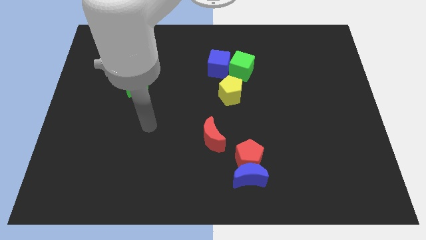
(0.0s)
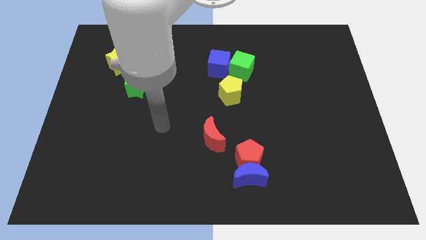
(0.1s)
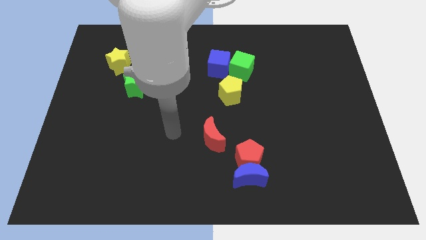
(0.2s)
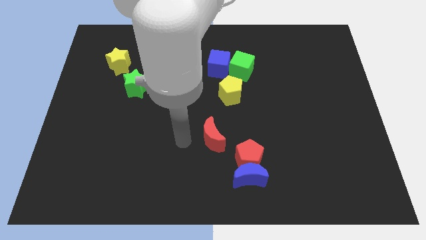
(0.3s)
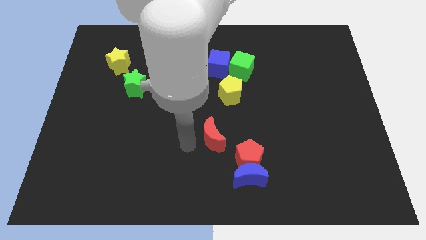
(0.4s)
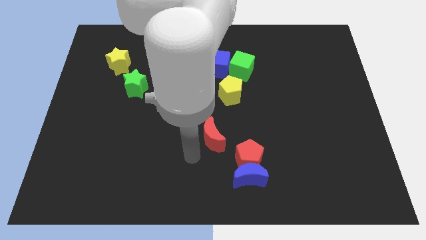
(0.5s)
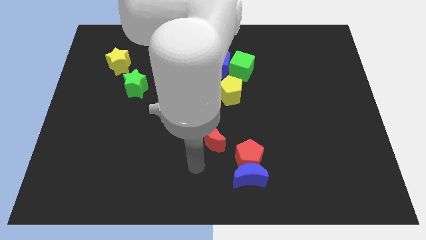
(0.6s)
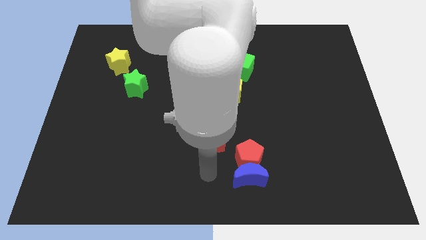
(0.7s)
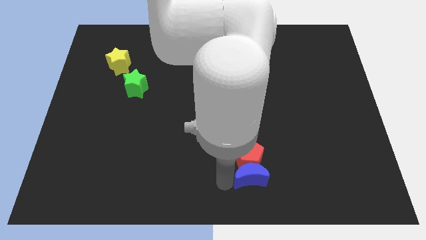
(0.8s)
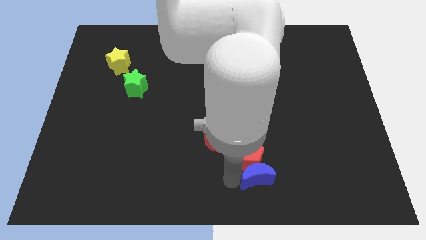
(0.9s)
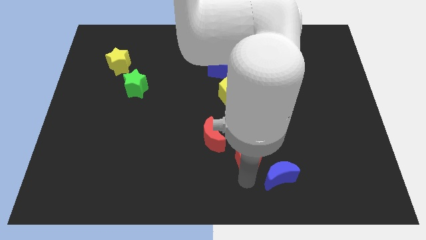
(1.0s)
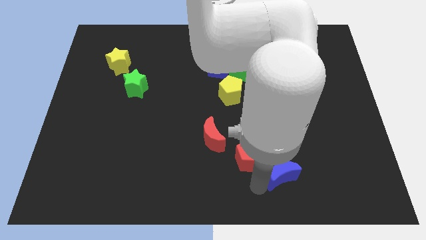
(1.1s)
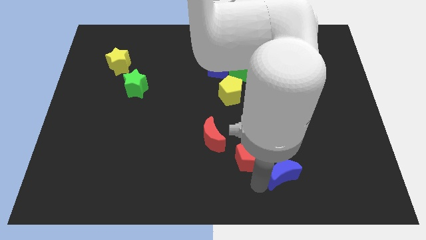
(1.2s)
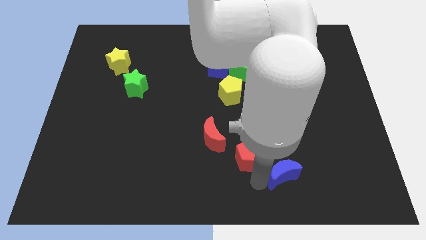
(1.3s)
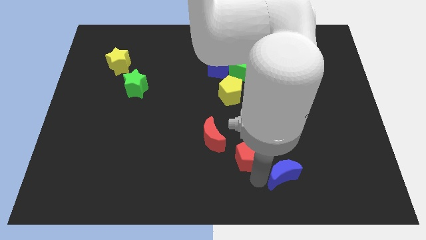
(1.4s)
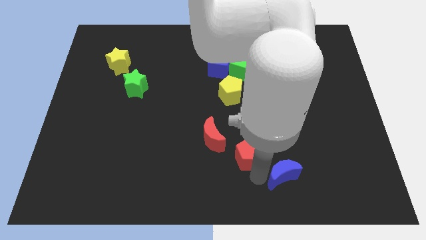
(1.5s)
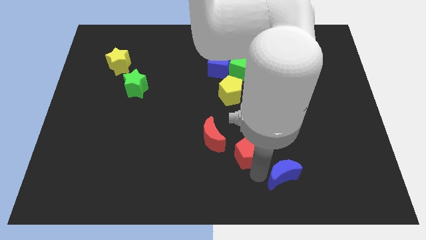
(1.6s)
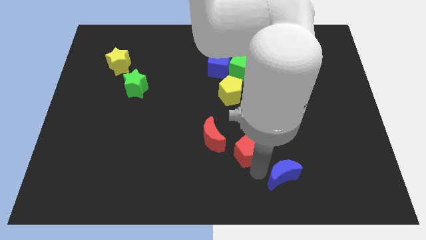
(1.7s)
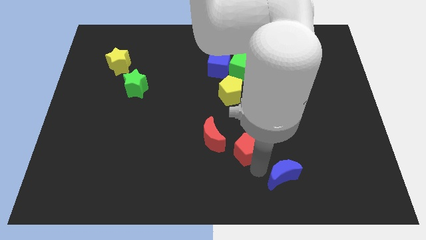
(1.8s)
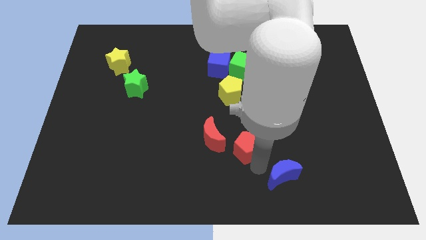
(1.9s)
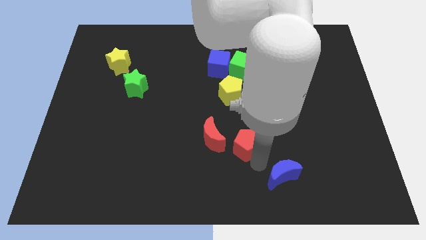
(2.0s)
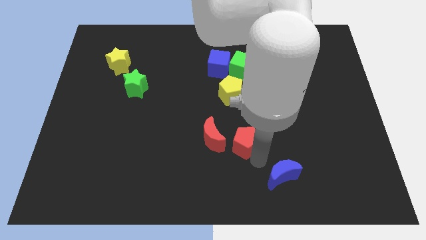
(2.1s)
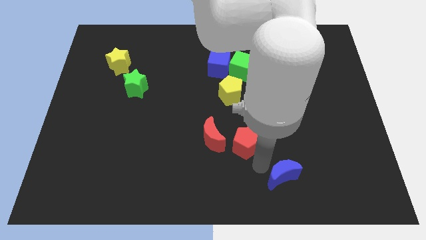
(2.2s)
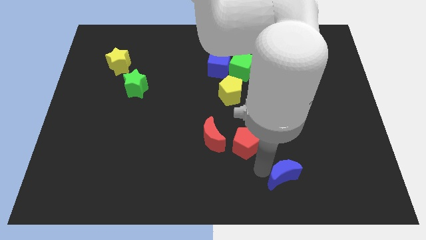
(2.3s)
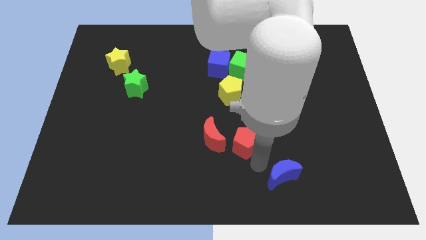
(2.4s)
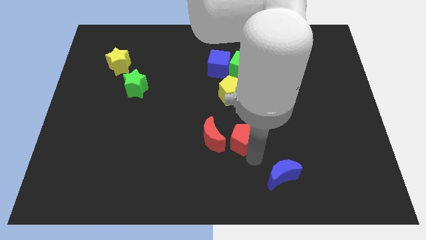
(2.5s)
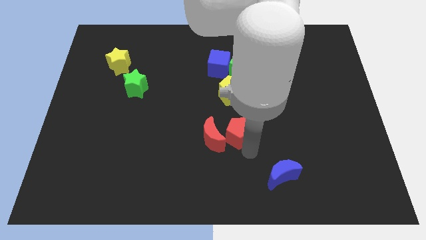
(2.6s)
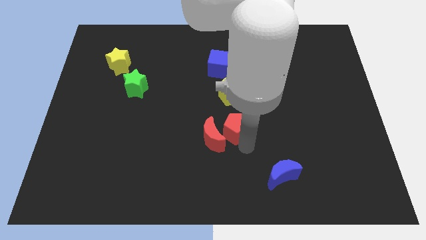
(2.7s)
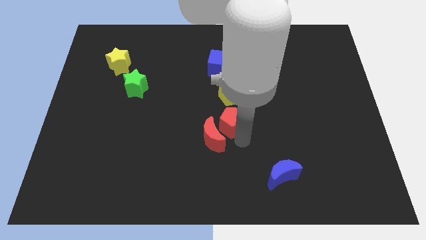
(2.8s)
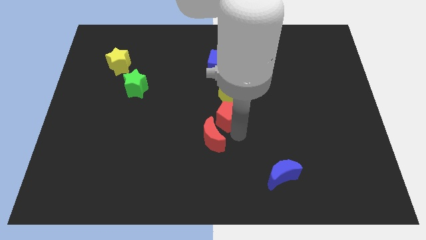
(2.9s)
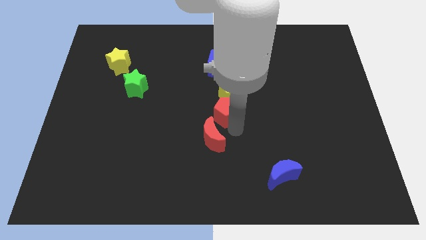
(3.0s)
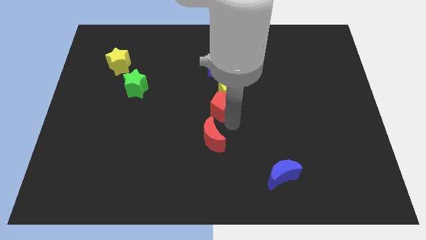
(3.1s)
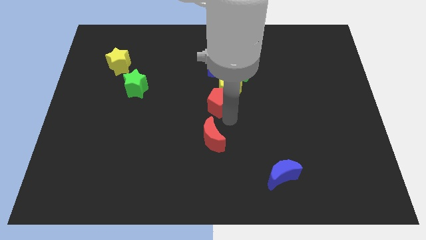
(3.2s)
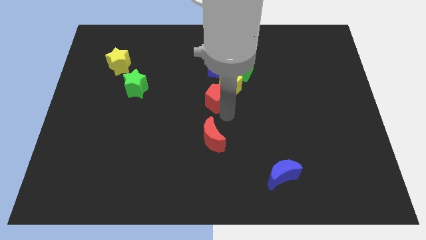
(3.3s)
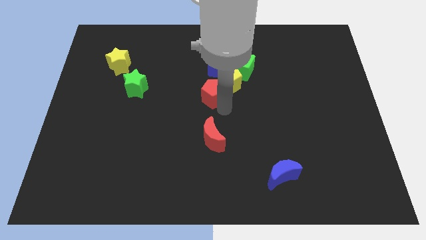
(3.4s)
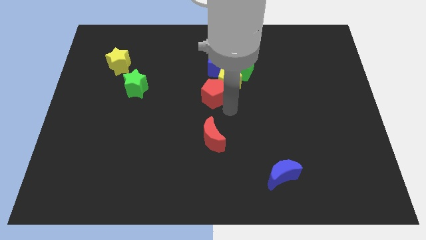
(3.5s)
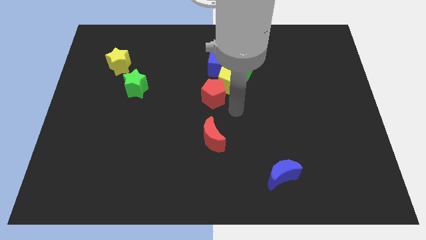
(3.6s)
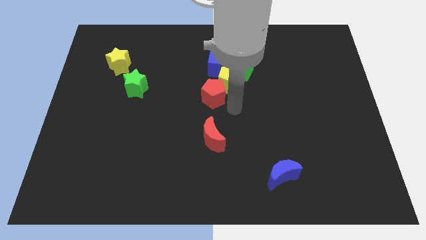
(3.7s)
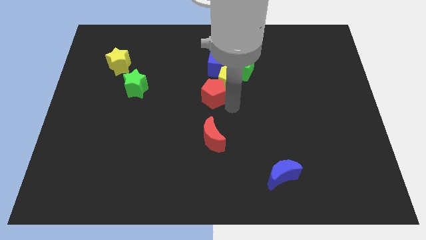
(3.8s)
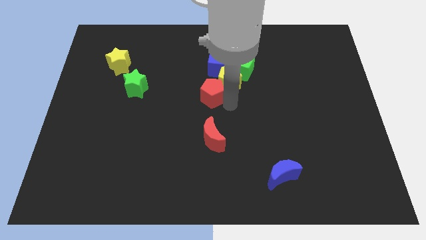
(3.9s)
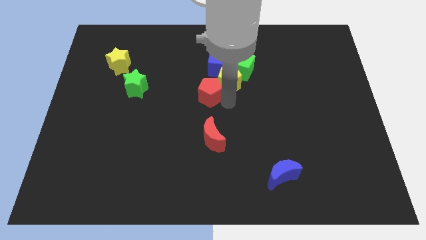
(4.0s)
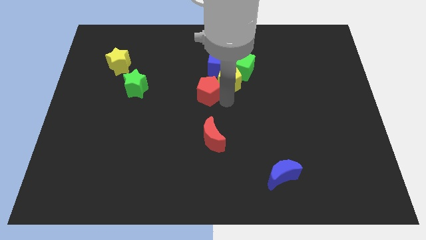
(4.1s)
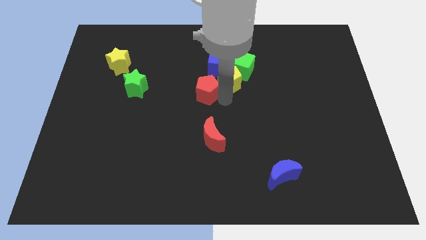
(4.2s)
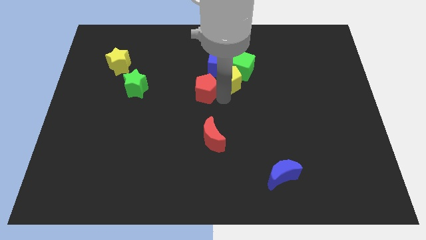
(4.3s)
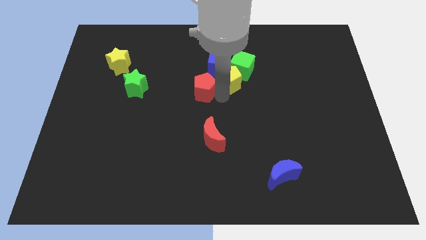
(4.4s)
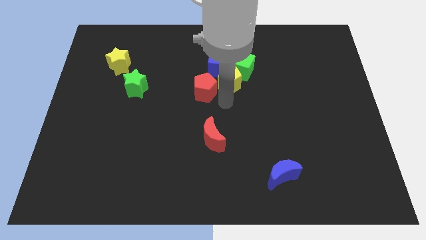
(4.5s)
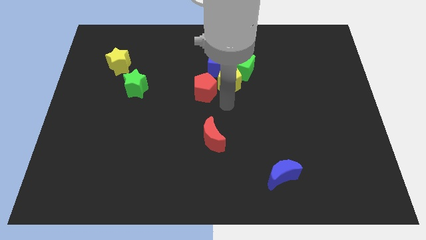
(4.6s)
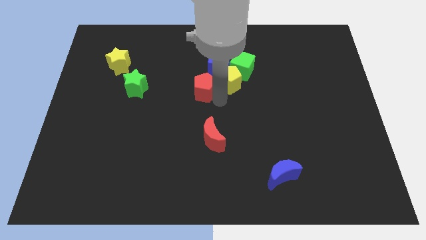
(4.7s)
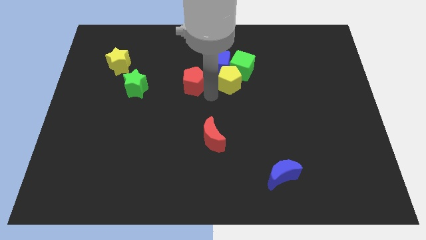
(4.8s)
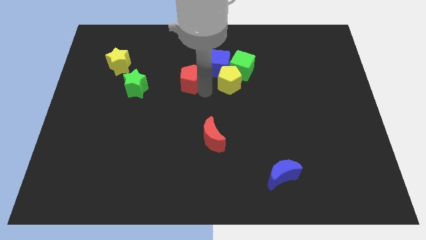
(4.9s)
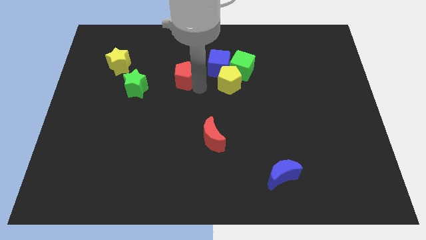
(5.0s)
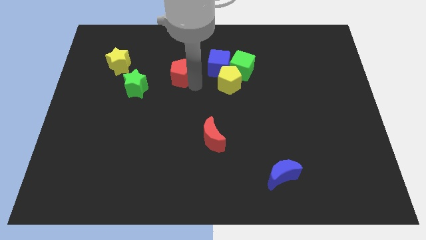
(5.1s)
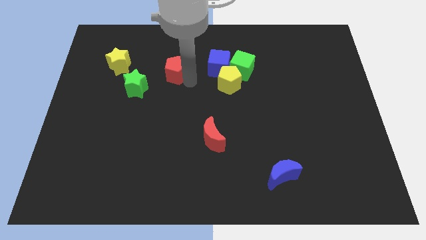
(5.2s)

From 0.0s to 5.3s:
push the red pentagon to the right side of the yellow star

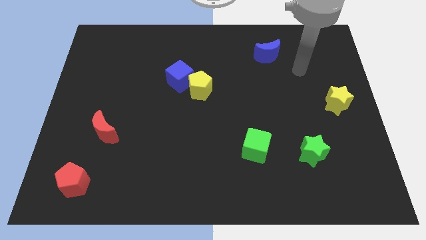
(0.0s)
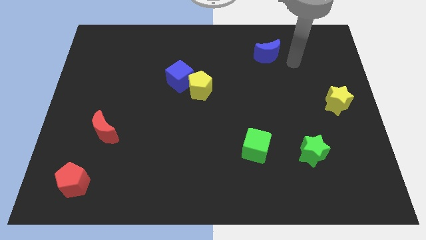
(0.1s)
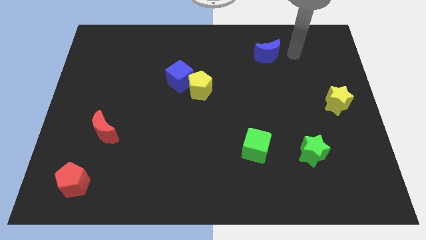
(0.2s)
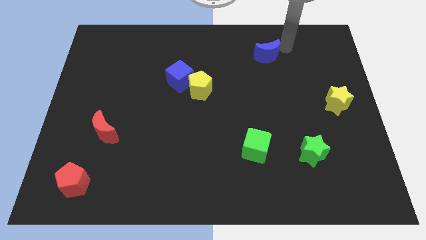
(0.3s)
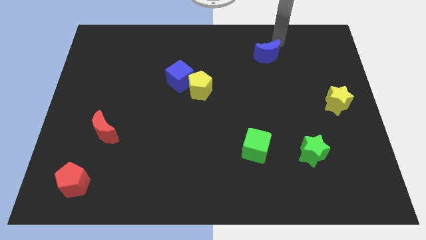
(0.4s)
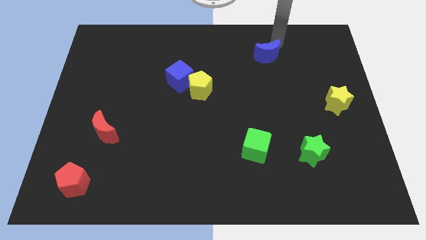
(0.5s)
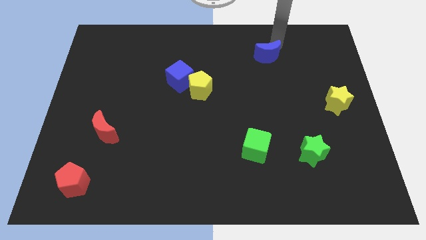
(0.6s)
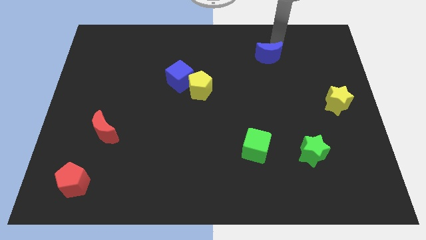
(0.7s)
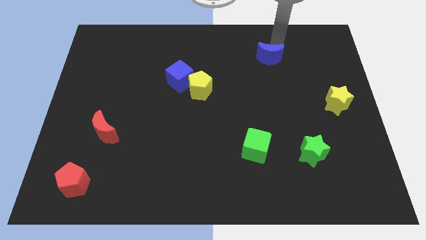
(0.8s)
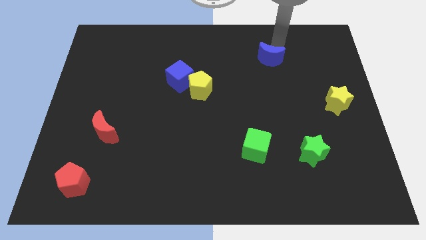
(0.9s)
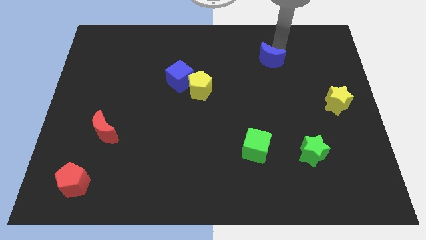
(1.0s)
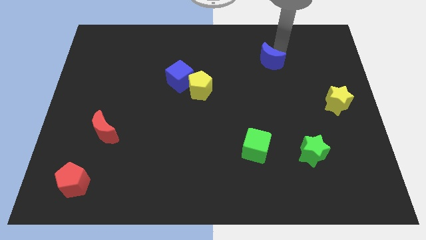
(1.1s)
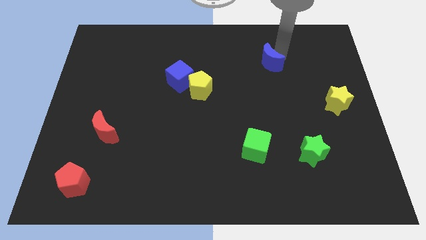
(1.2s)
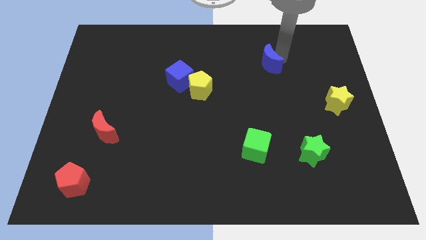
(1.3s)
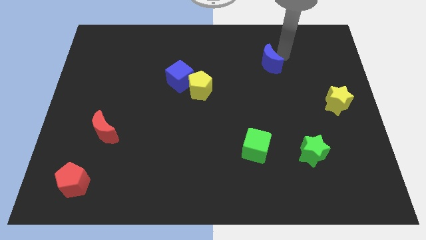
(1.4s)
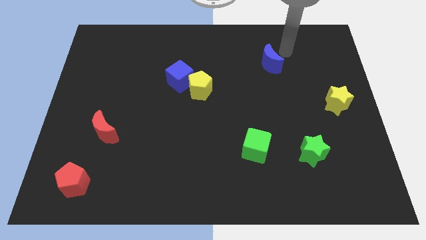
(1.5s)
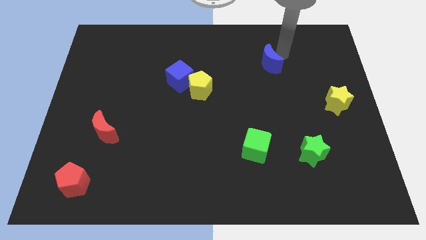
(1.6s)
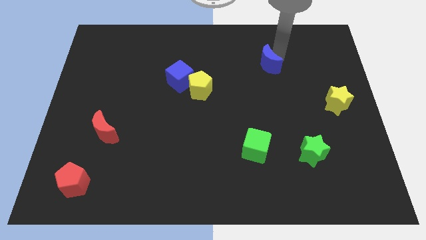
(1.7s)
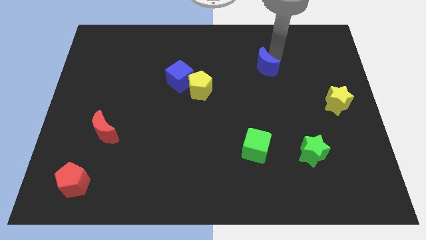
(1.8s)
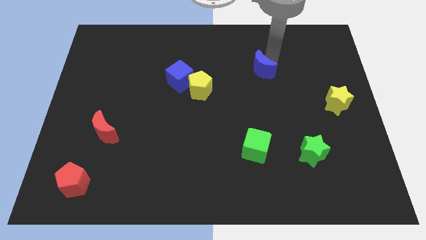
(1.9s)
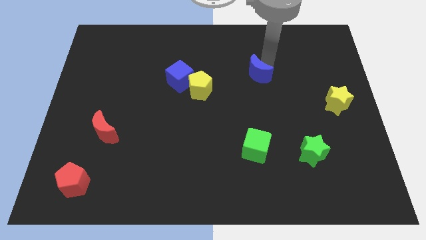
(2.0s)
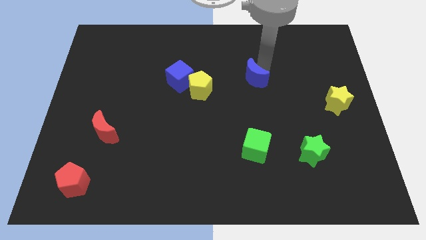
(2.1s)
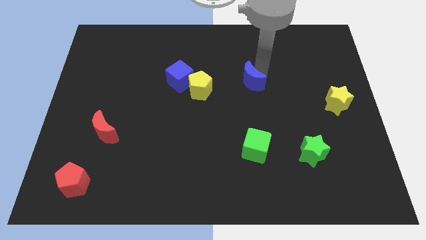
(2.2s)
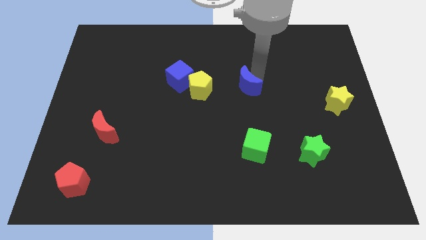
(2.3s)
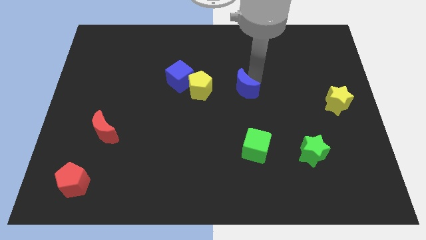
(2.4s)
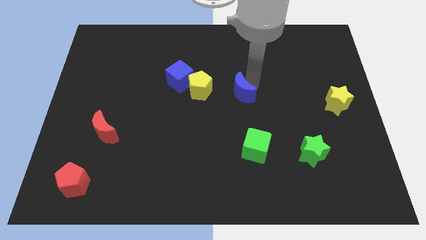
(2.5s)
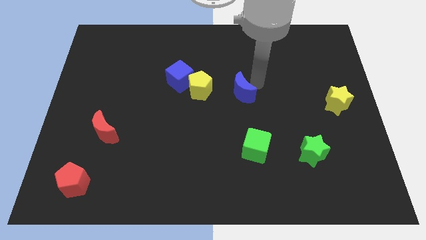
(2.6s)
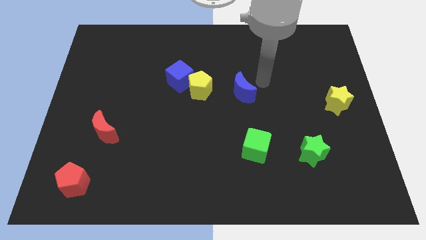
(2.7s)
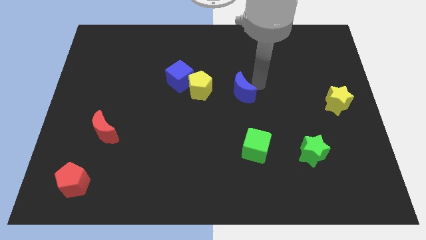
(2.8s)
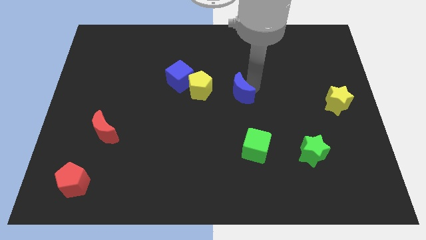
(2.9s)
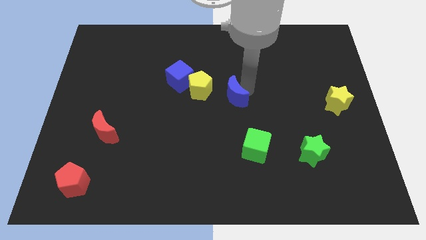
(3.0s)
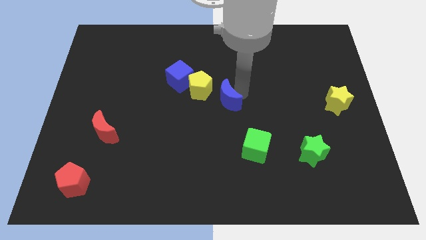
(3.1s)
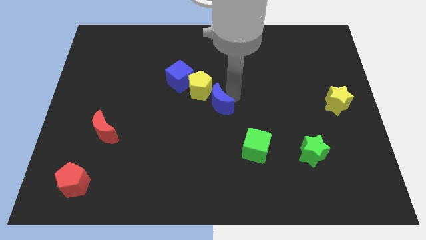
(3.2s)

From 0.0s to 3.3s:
slide the blue moon to the bottom of the yellow pentagon
